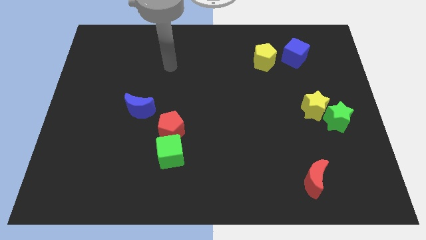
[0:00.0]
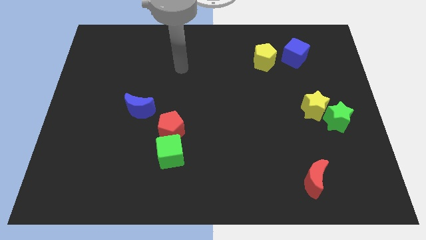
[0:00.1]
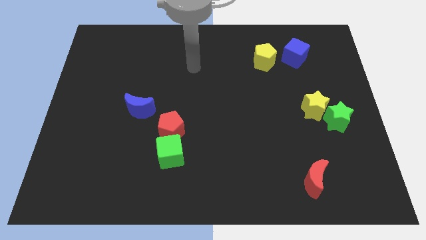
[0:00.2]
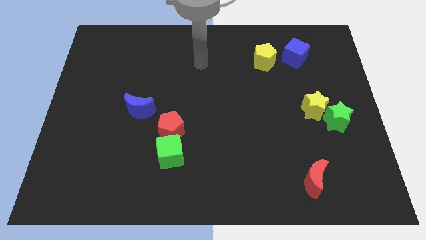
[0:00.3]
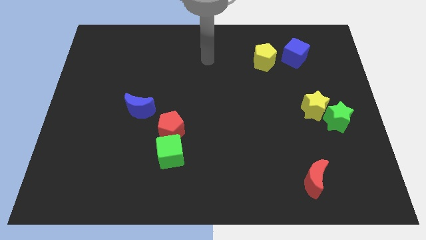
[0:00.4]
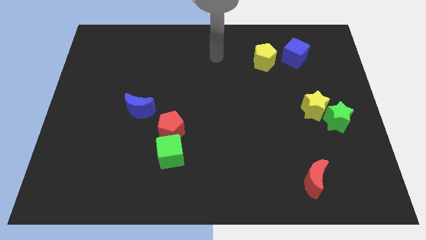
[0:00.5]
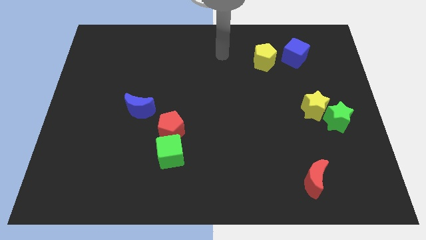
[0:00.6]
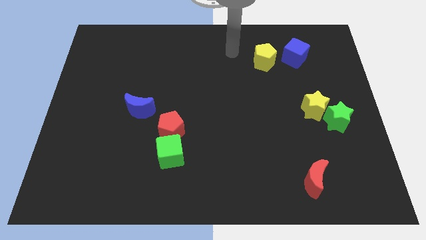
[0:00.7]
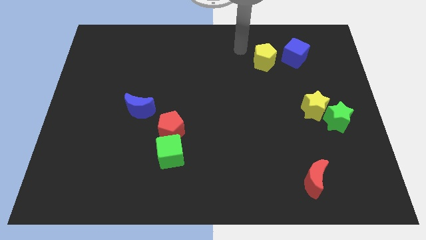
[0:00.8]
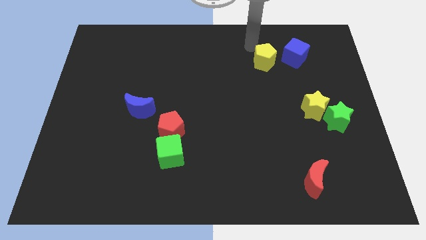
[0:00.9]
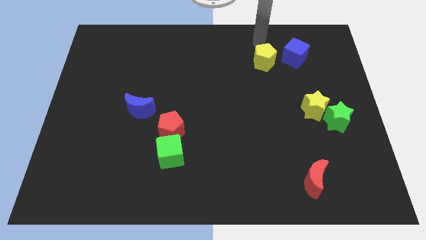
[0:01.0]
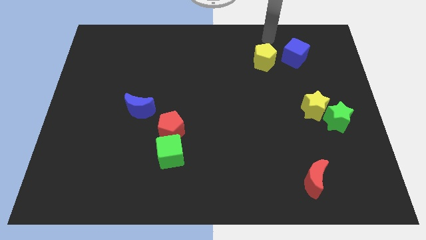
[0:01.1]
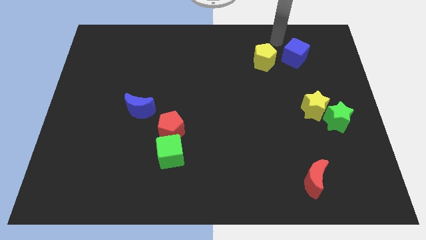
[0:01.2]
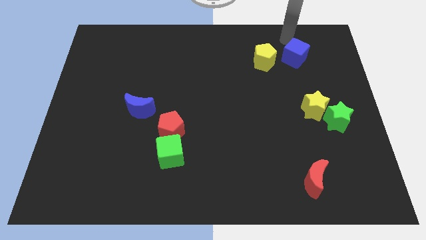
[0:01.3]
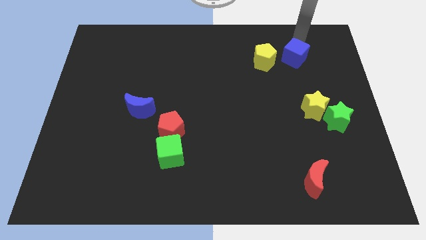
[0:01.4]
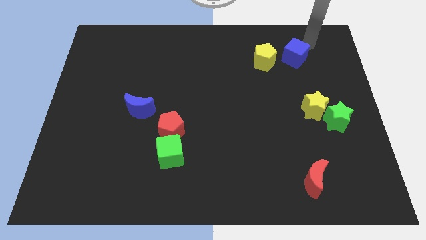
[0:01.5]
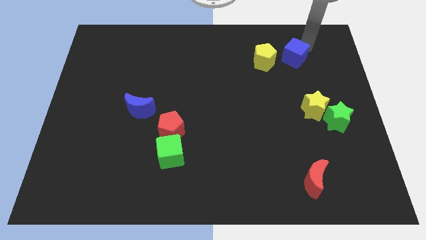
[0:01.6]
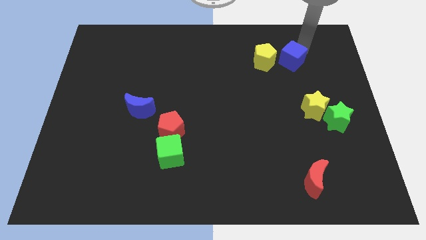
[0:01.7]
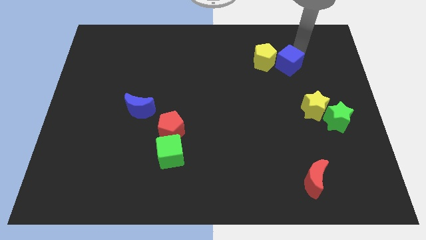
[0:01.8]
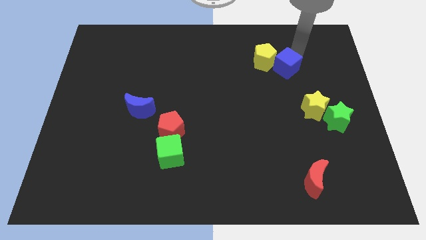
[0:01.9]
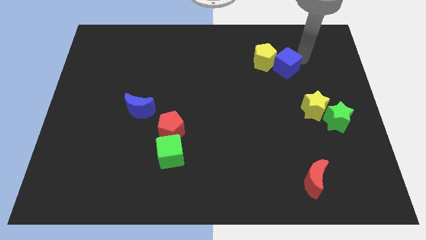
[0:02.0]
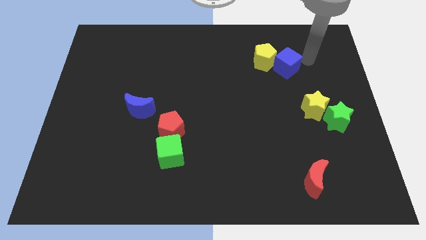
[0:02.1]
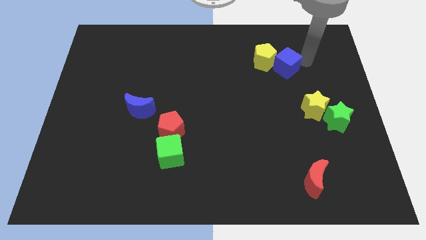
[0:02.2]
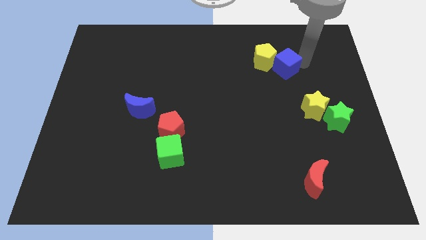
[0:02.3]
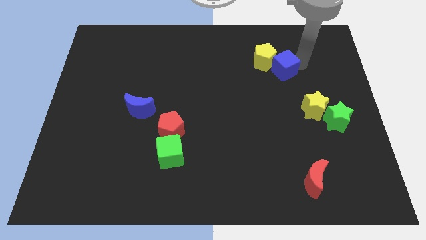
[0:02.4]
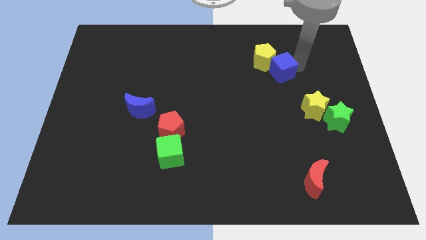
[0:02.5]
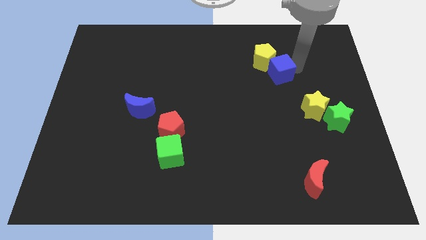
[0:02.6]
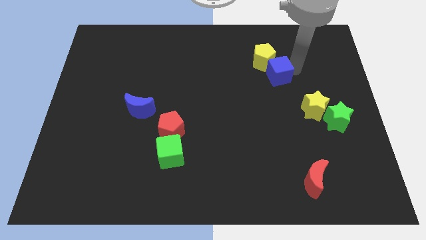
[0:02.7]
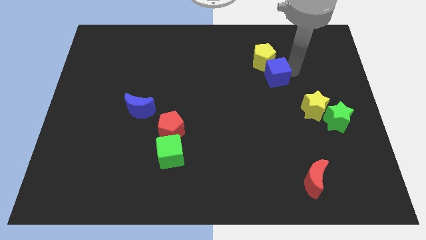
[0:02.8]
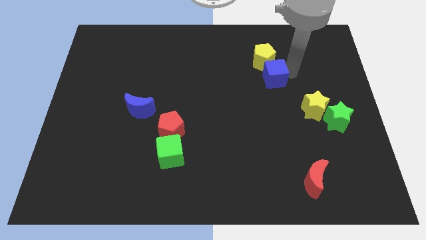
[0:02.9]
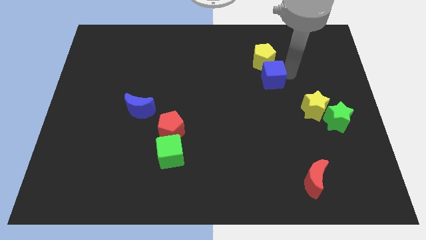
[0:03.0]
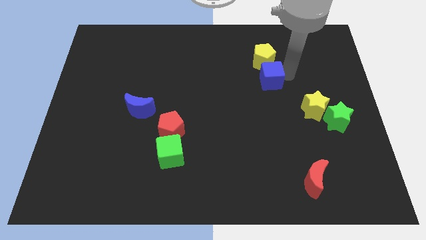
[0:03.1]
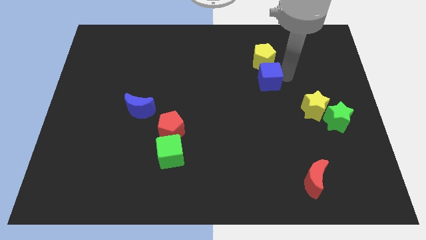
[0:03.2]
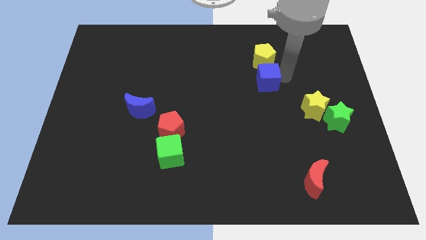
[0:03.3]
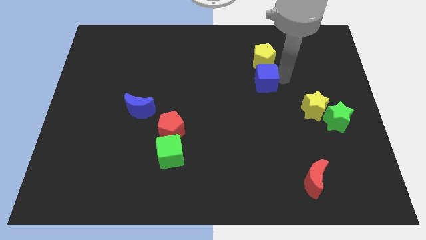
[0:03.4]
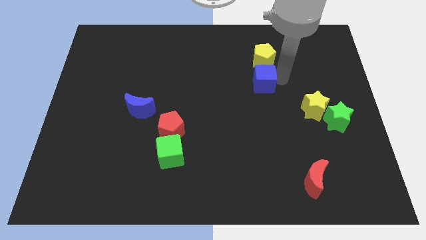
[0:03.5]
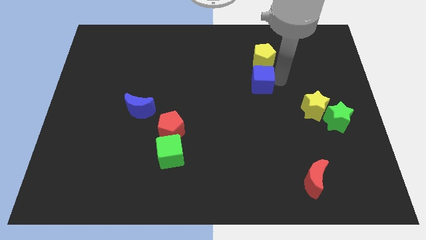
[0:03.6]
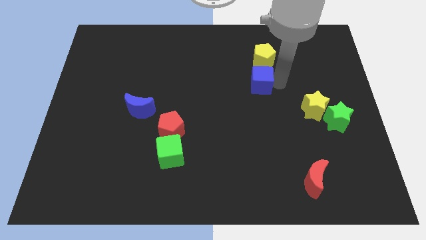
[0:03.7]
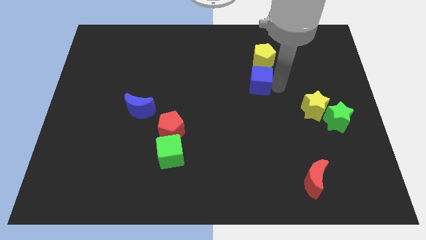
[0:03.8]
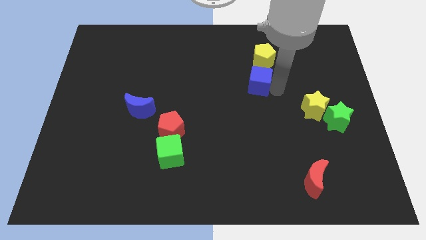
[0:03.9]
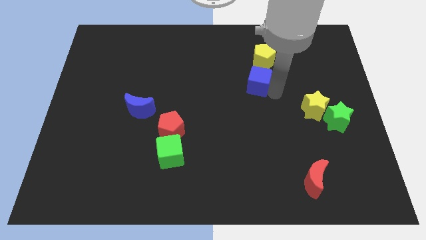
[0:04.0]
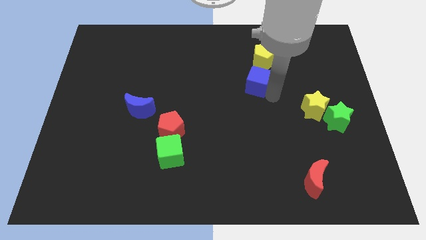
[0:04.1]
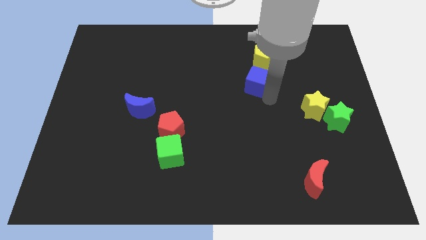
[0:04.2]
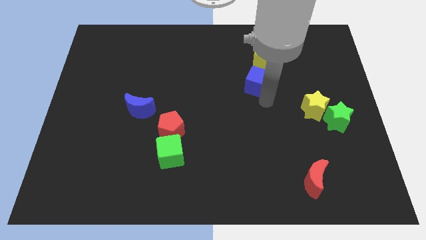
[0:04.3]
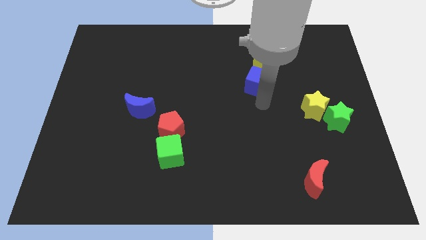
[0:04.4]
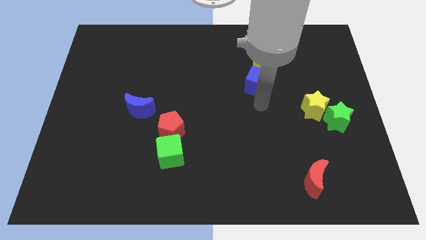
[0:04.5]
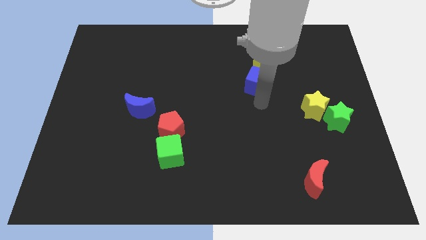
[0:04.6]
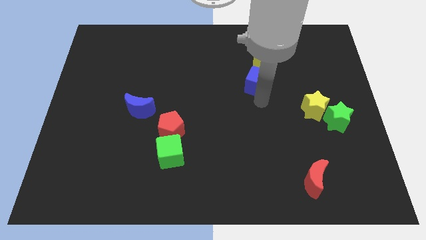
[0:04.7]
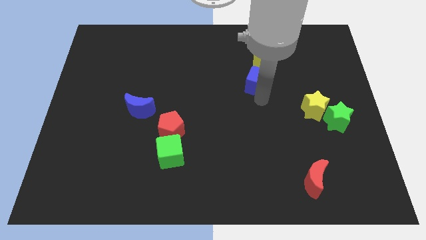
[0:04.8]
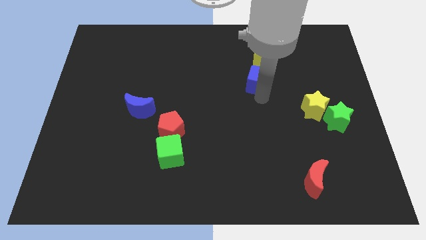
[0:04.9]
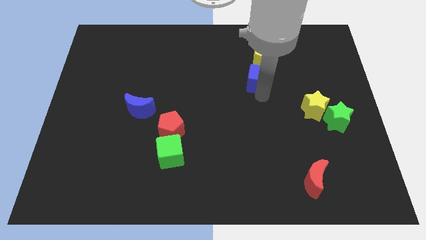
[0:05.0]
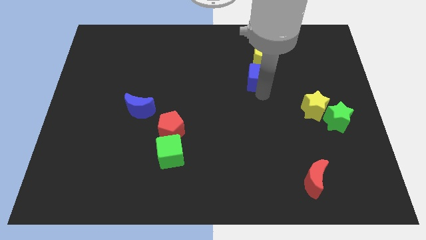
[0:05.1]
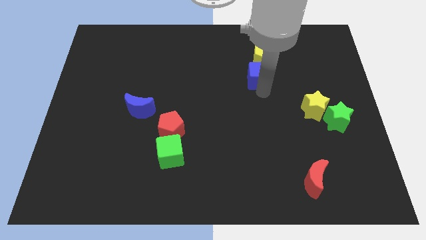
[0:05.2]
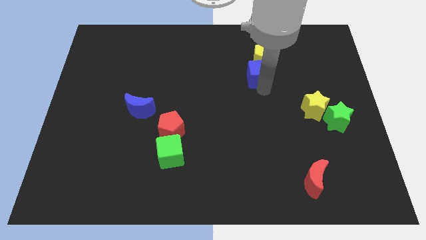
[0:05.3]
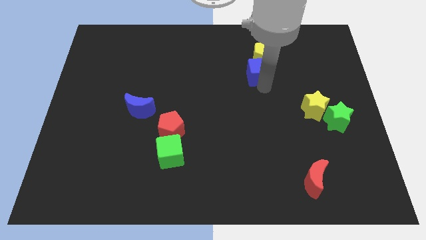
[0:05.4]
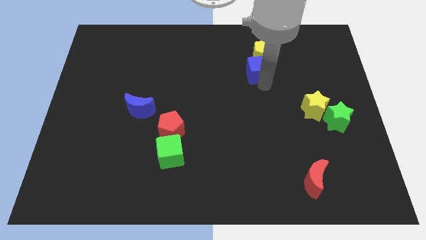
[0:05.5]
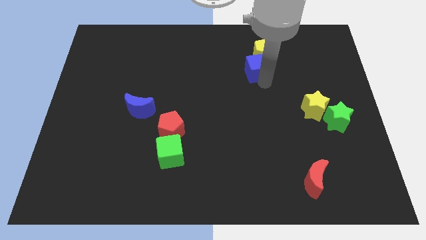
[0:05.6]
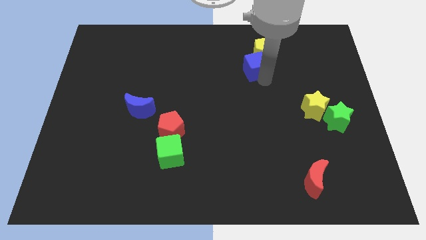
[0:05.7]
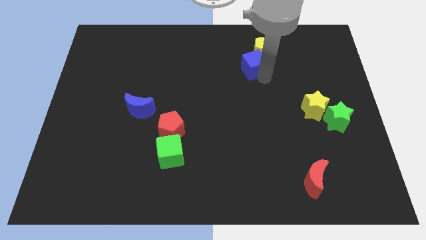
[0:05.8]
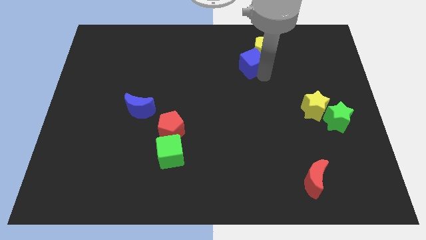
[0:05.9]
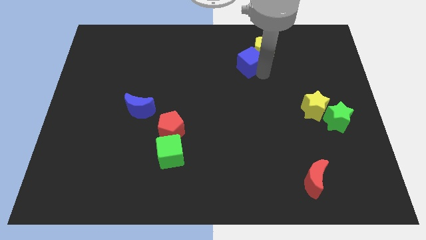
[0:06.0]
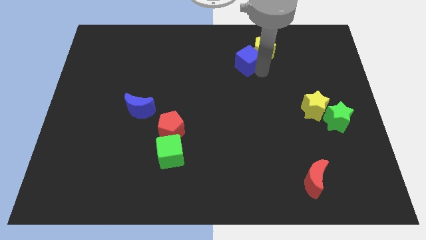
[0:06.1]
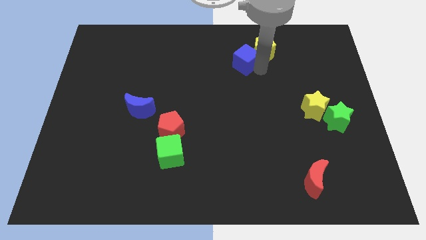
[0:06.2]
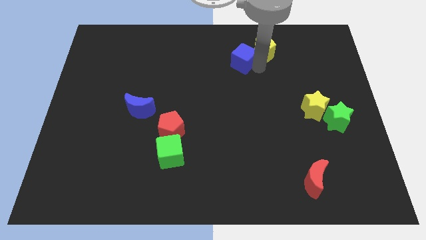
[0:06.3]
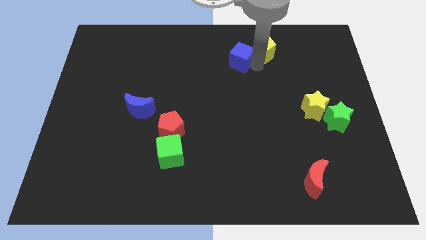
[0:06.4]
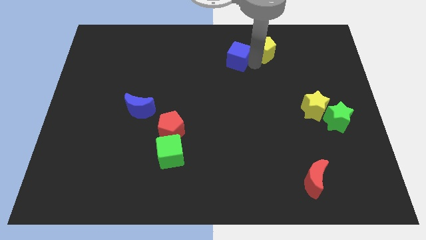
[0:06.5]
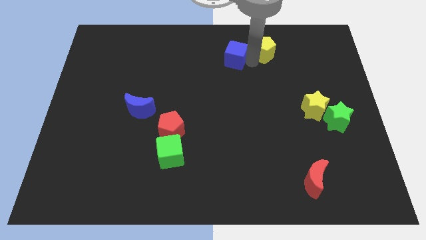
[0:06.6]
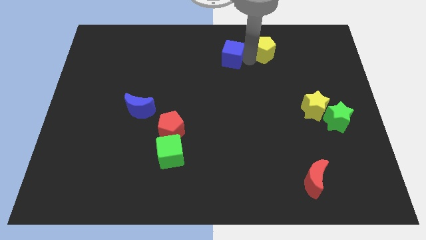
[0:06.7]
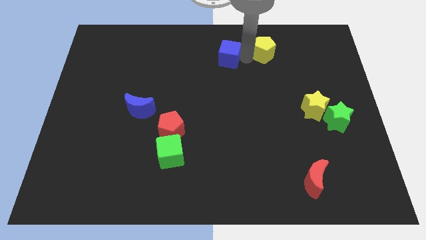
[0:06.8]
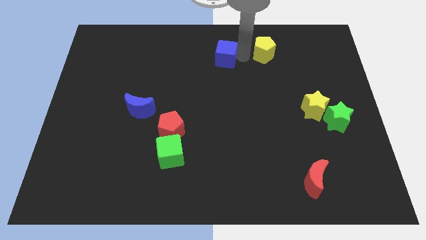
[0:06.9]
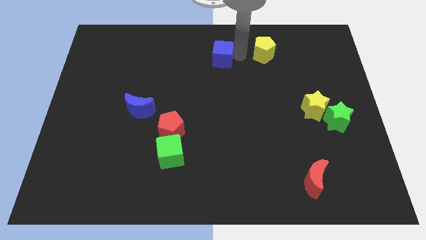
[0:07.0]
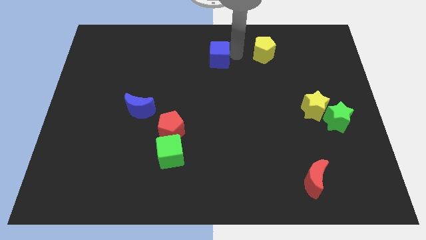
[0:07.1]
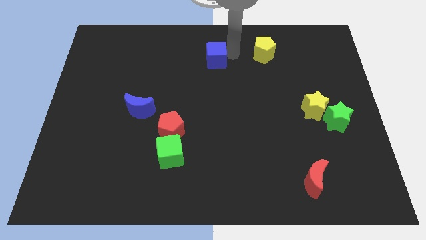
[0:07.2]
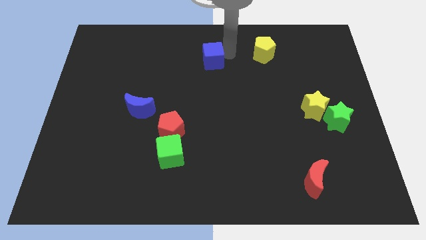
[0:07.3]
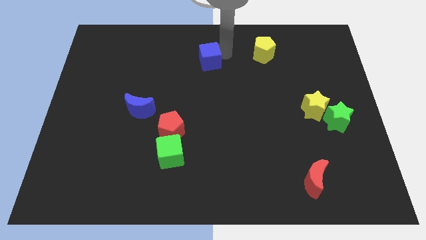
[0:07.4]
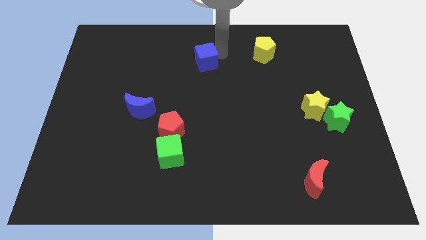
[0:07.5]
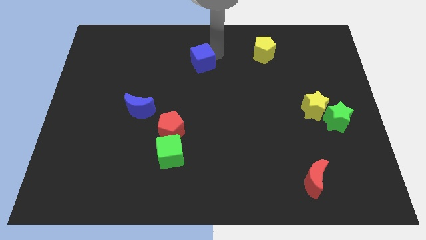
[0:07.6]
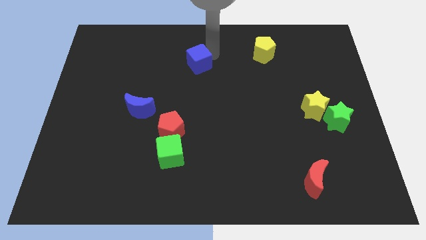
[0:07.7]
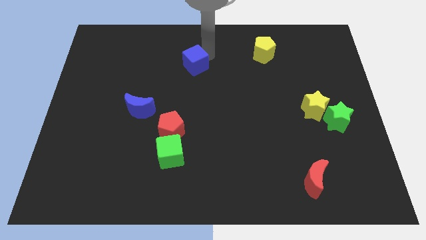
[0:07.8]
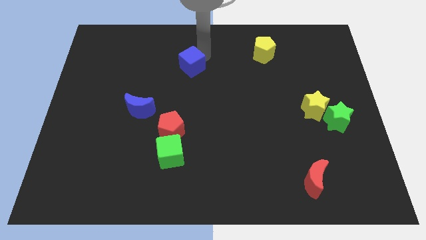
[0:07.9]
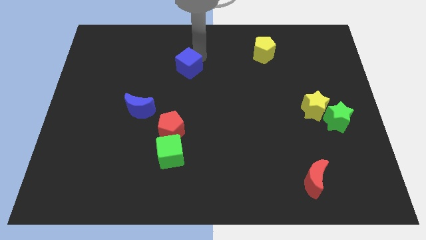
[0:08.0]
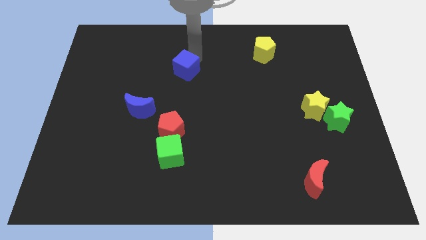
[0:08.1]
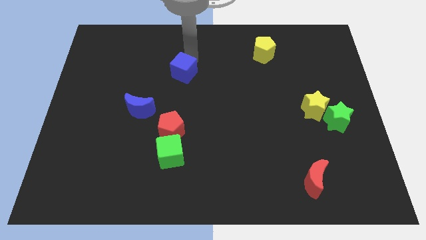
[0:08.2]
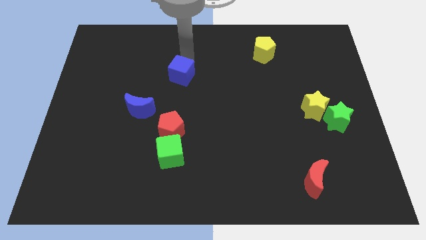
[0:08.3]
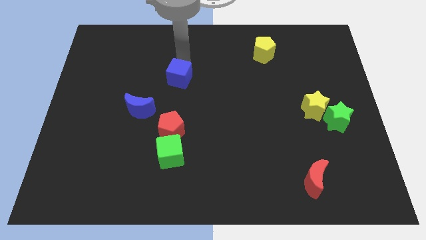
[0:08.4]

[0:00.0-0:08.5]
push the blue cube to the top side of the red pentagon
